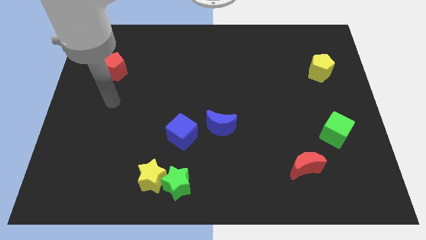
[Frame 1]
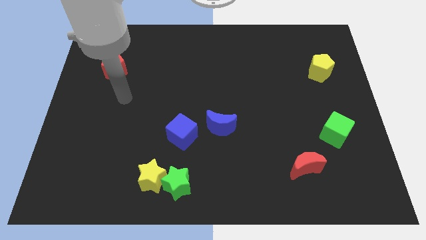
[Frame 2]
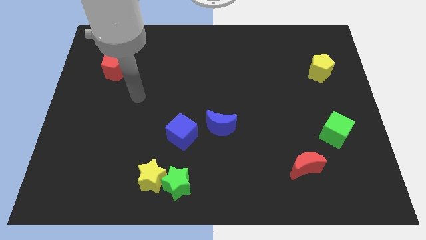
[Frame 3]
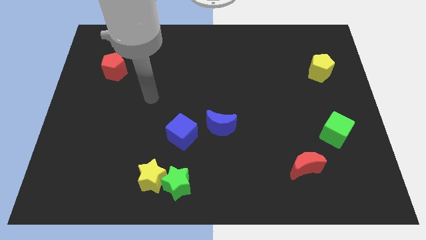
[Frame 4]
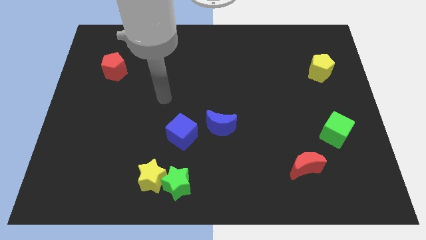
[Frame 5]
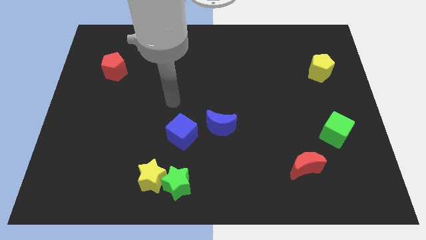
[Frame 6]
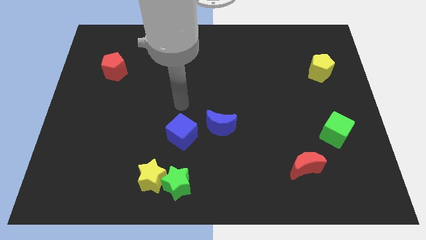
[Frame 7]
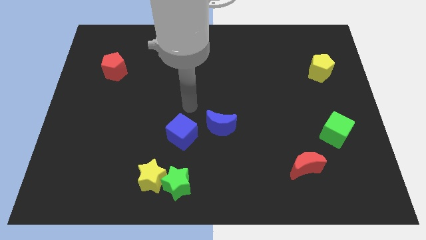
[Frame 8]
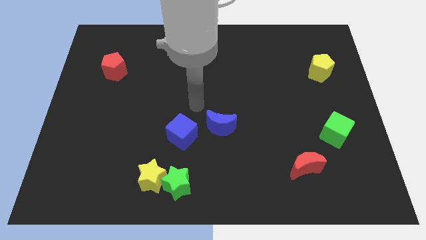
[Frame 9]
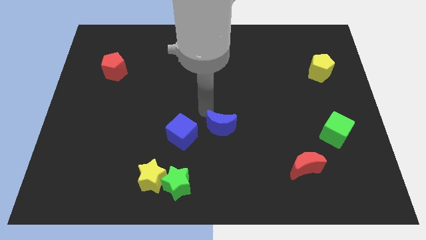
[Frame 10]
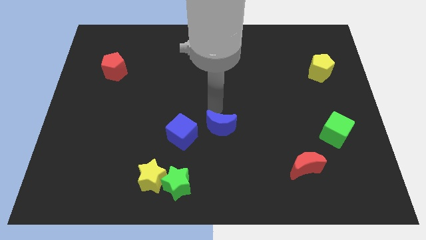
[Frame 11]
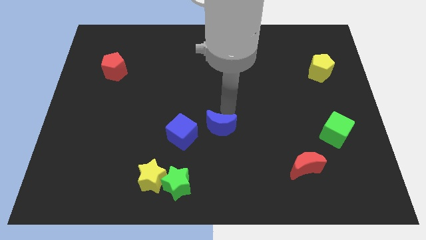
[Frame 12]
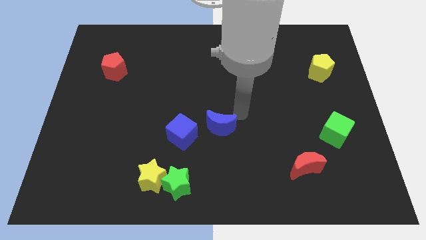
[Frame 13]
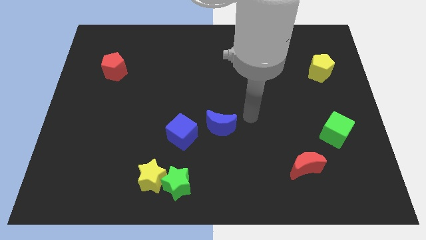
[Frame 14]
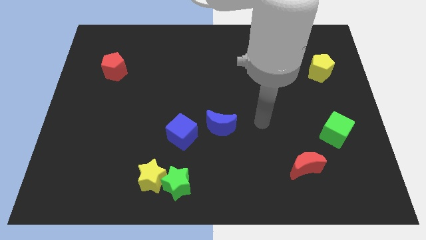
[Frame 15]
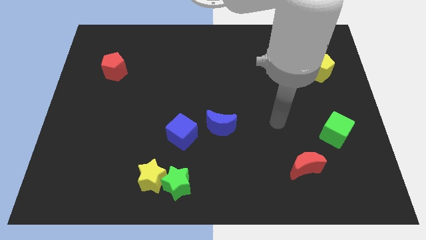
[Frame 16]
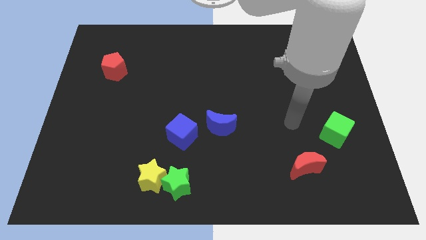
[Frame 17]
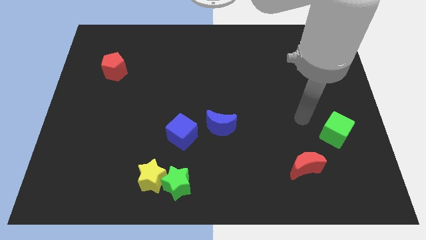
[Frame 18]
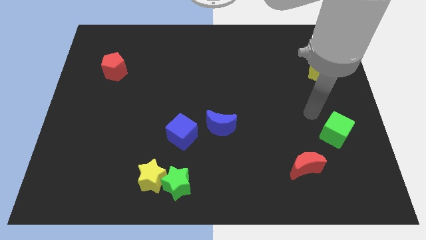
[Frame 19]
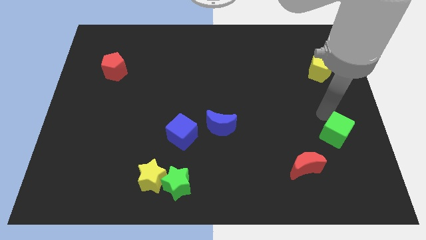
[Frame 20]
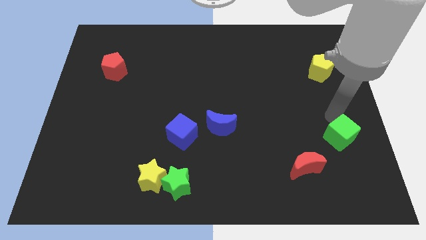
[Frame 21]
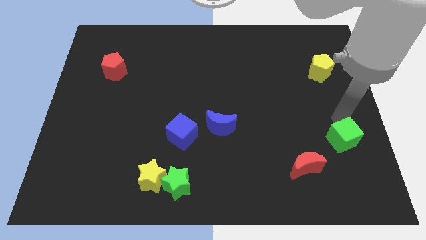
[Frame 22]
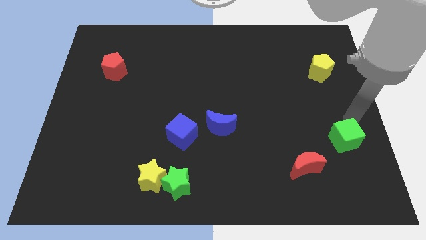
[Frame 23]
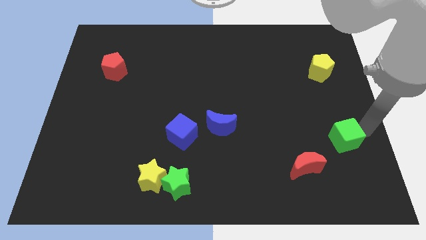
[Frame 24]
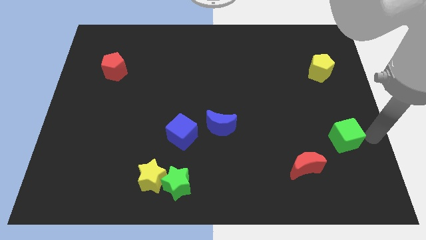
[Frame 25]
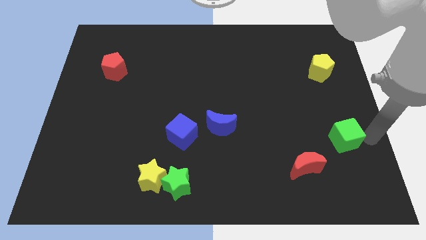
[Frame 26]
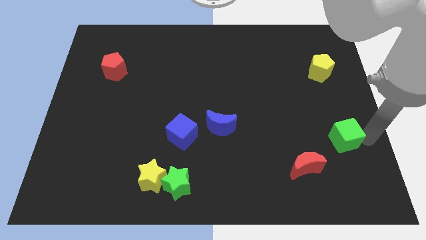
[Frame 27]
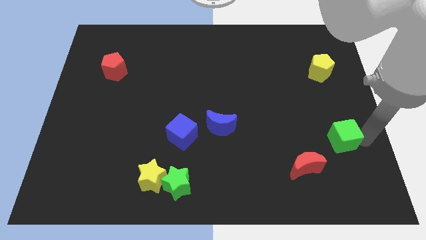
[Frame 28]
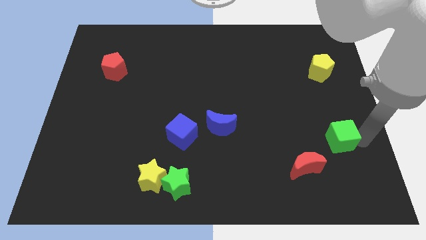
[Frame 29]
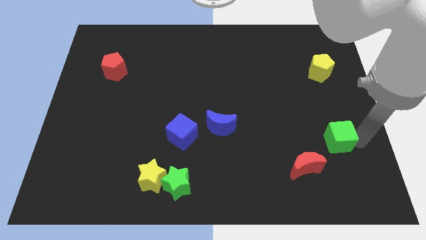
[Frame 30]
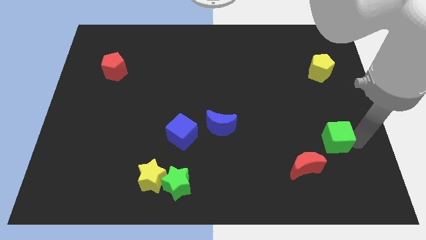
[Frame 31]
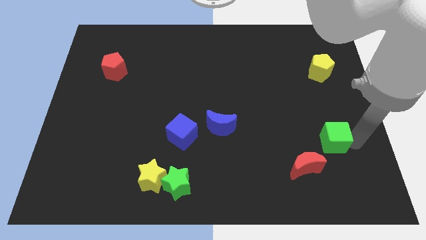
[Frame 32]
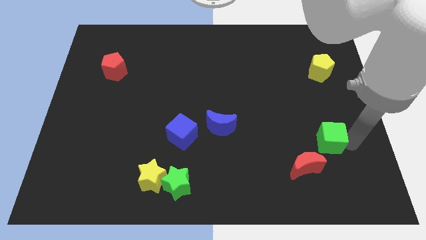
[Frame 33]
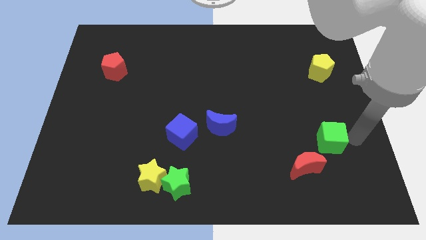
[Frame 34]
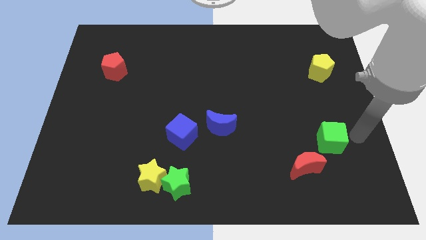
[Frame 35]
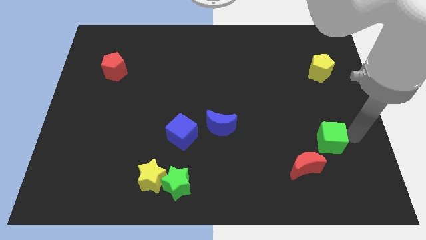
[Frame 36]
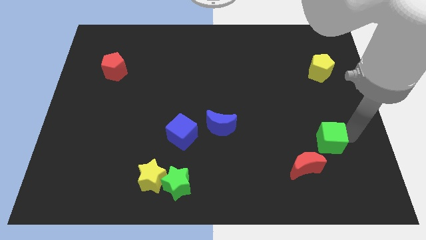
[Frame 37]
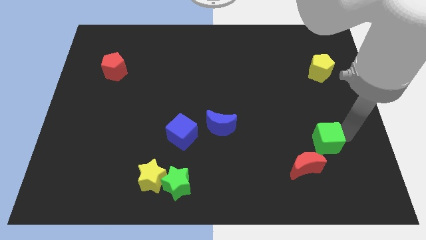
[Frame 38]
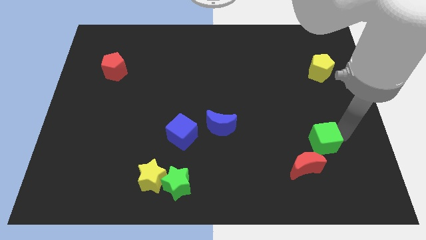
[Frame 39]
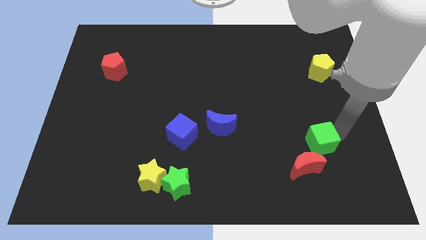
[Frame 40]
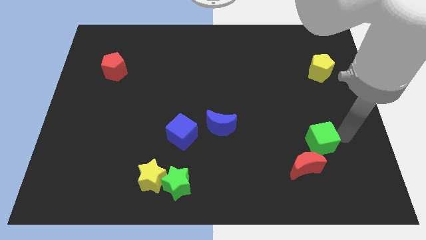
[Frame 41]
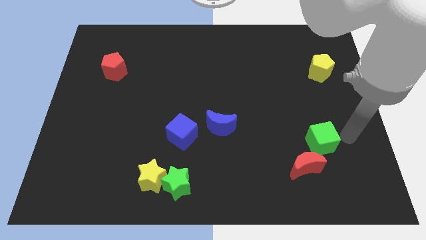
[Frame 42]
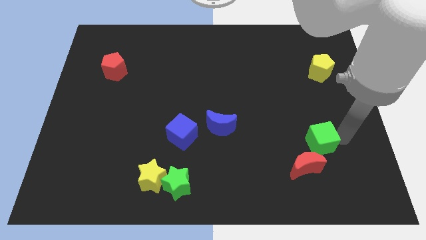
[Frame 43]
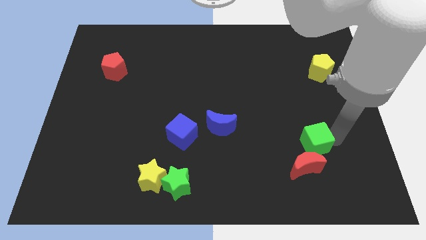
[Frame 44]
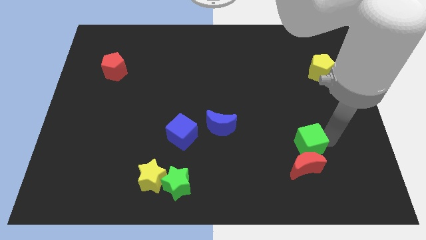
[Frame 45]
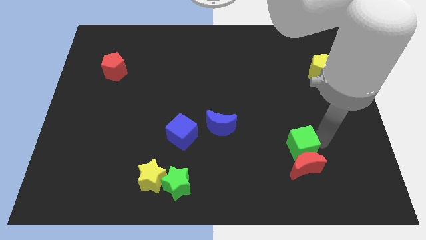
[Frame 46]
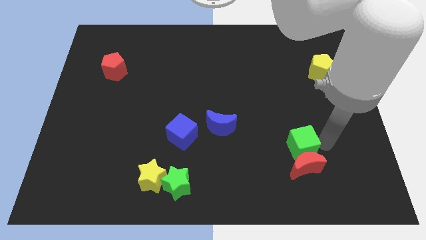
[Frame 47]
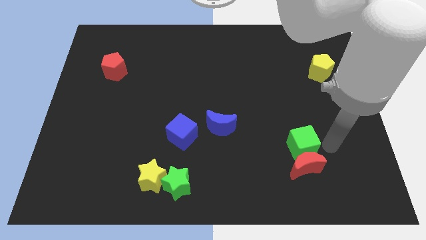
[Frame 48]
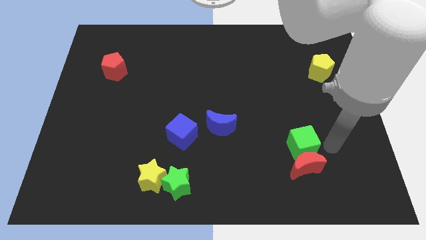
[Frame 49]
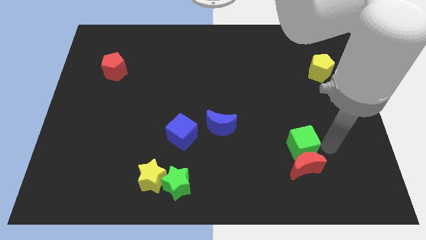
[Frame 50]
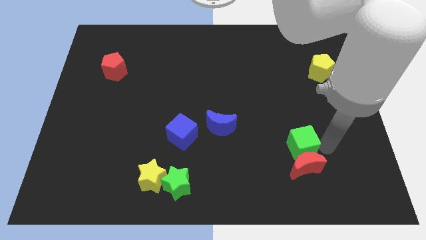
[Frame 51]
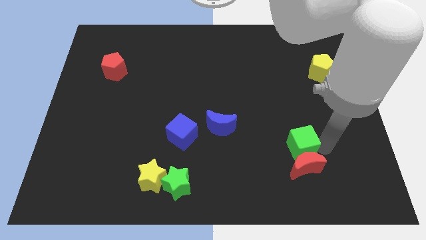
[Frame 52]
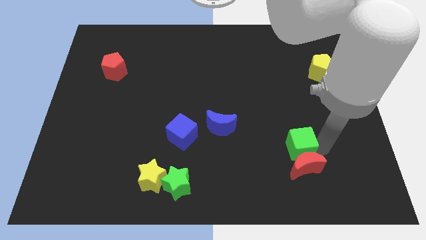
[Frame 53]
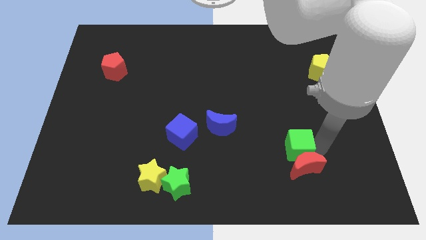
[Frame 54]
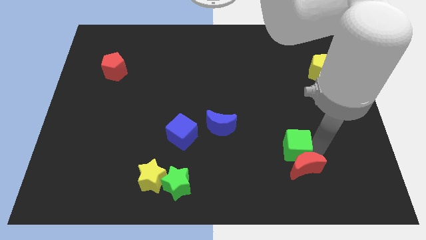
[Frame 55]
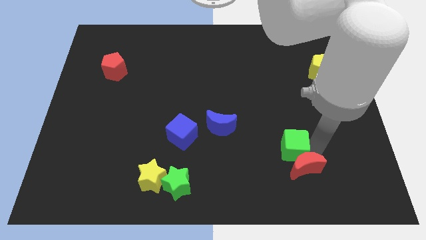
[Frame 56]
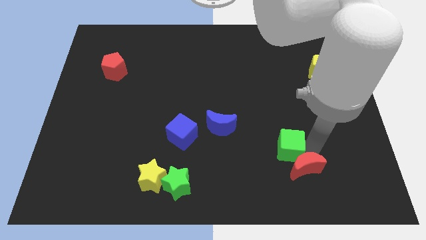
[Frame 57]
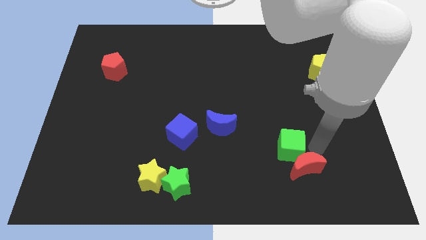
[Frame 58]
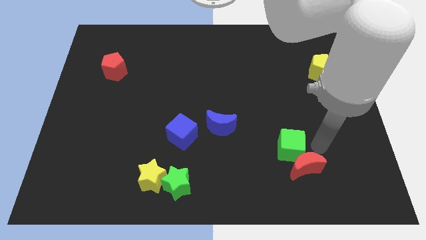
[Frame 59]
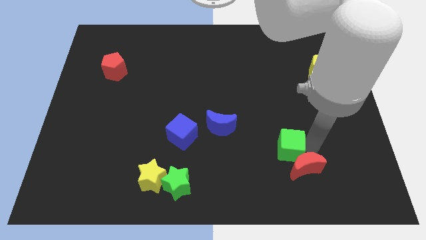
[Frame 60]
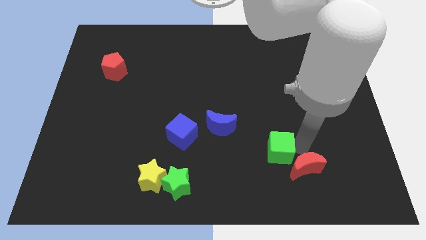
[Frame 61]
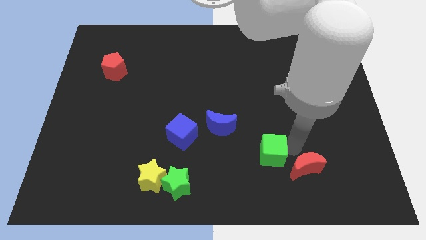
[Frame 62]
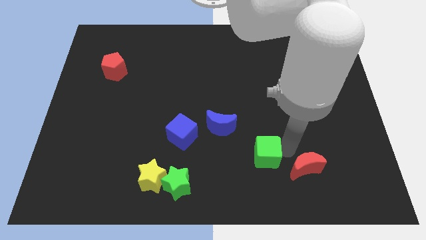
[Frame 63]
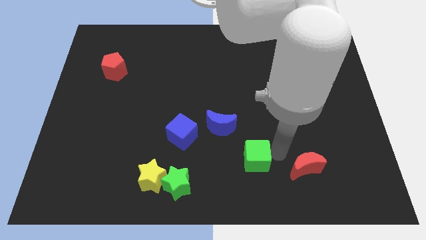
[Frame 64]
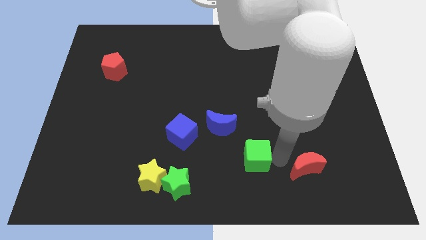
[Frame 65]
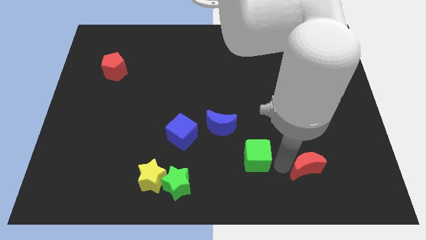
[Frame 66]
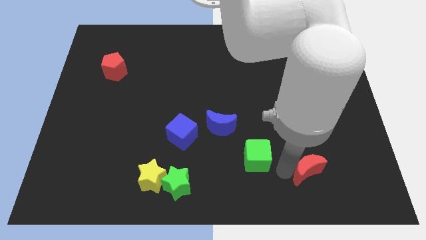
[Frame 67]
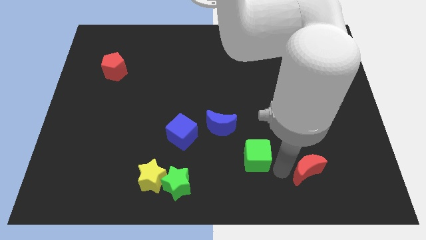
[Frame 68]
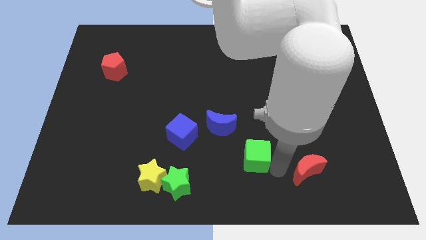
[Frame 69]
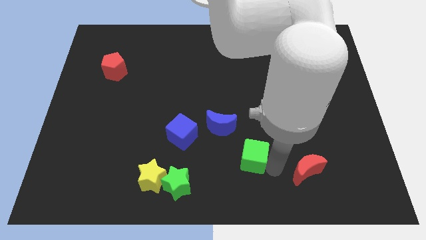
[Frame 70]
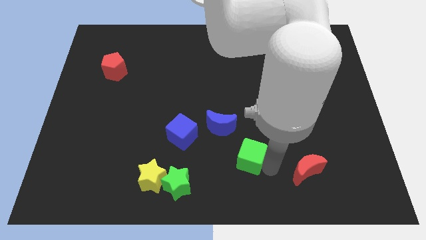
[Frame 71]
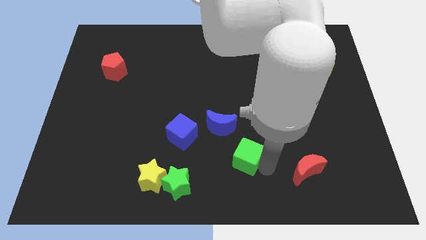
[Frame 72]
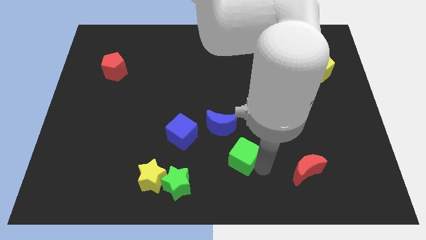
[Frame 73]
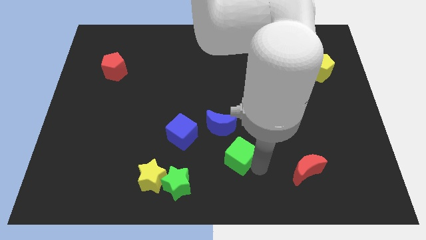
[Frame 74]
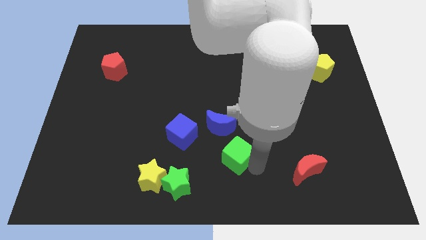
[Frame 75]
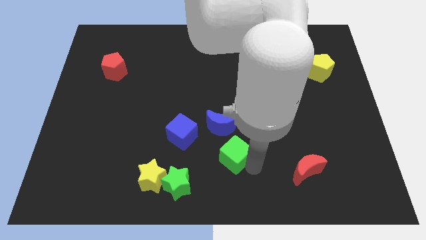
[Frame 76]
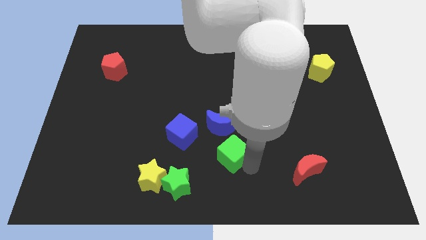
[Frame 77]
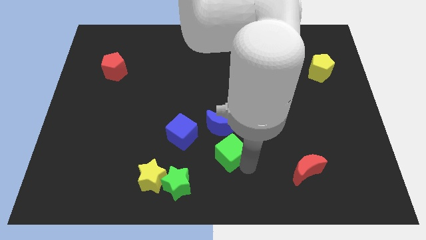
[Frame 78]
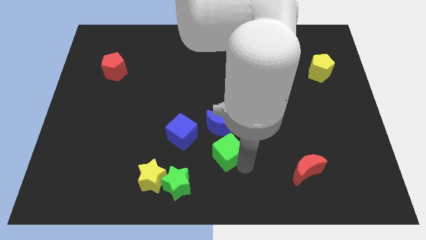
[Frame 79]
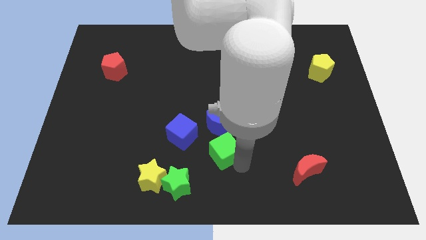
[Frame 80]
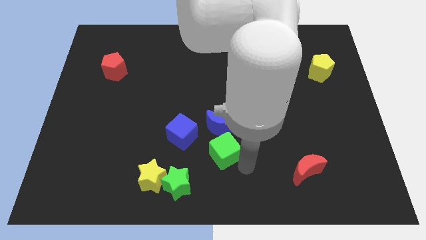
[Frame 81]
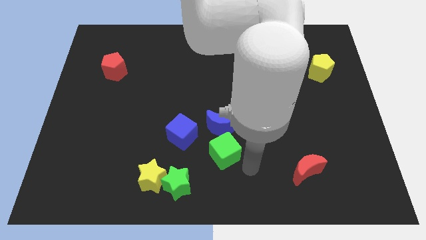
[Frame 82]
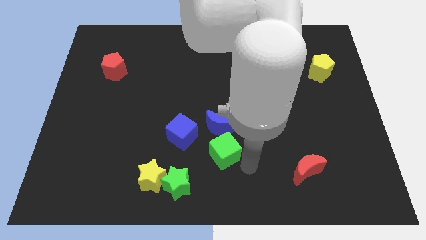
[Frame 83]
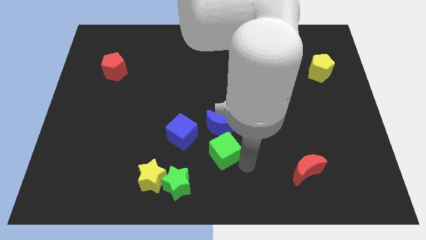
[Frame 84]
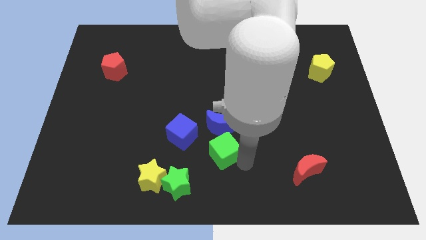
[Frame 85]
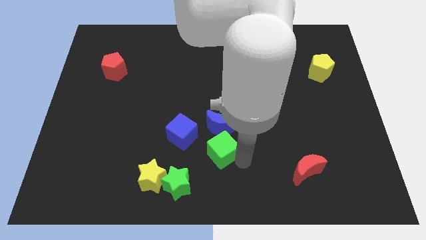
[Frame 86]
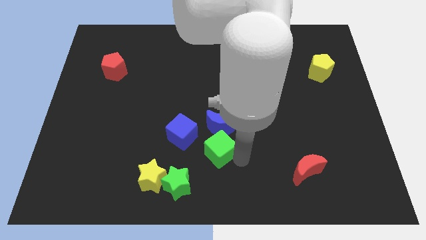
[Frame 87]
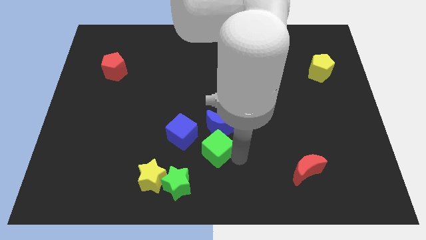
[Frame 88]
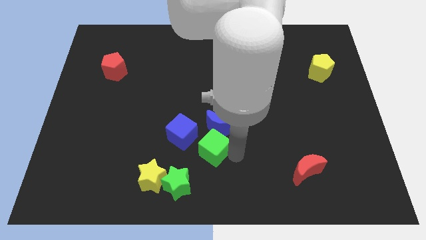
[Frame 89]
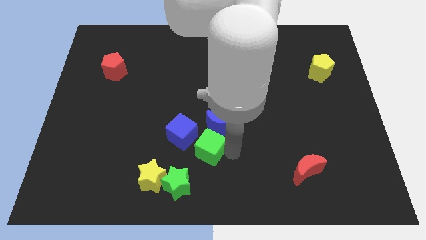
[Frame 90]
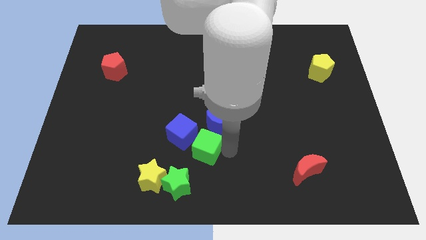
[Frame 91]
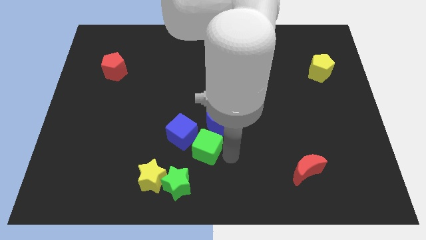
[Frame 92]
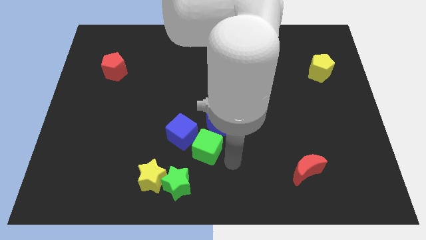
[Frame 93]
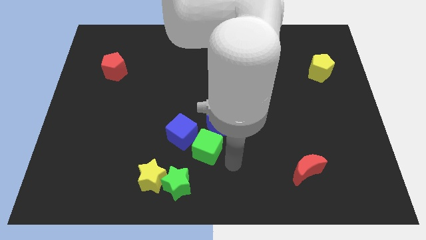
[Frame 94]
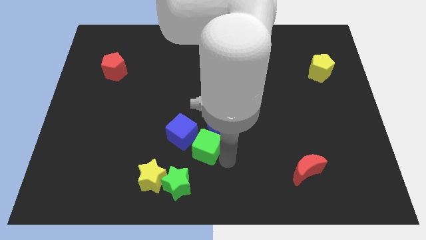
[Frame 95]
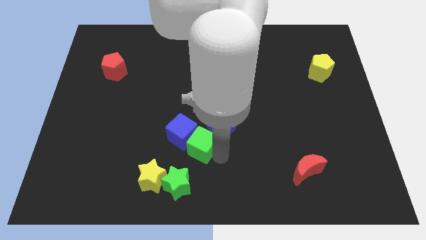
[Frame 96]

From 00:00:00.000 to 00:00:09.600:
put the green cube close to the blue cube
